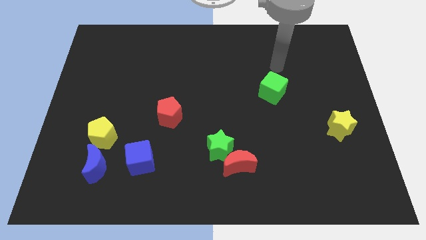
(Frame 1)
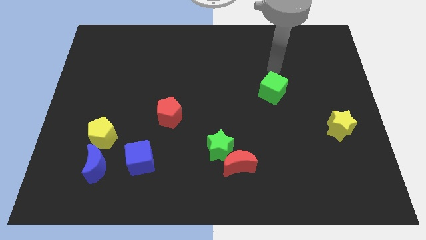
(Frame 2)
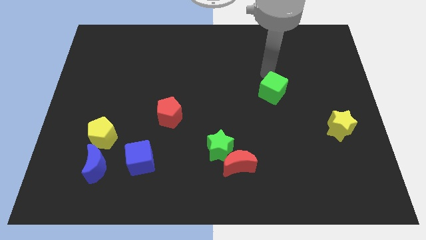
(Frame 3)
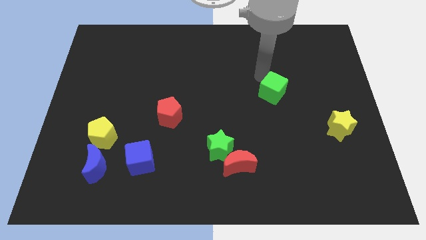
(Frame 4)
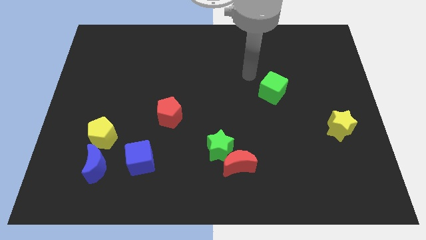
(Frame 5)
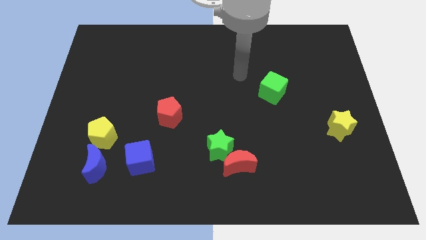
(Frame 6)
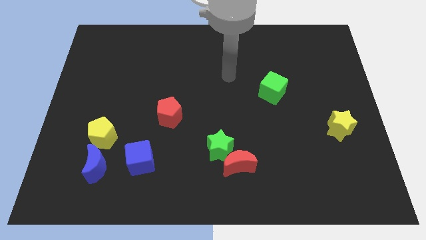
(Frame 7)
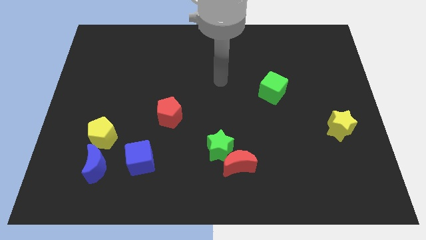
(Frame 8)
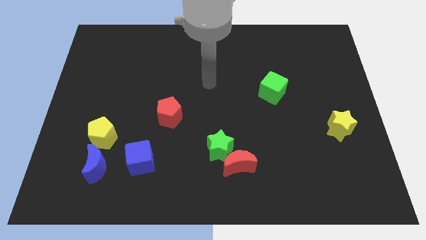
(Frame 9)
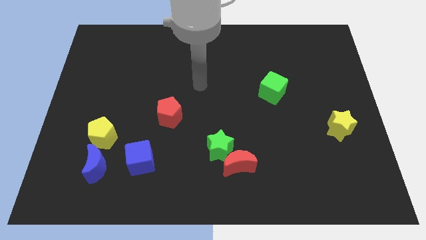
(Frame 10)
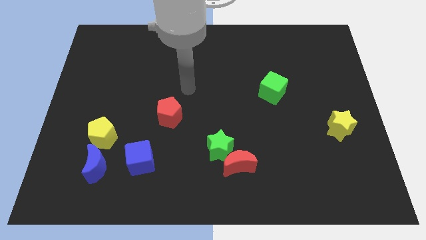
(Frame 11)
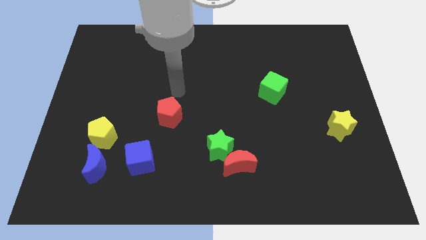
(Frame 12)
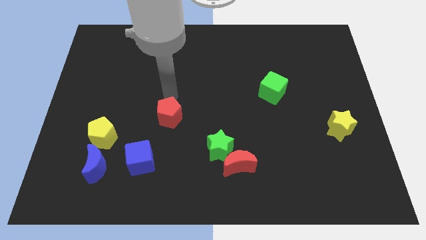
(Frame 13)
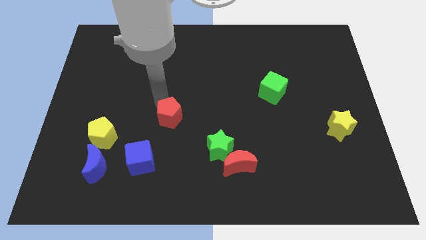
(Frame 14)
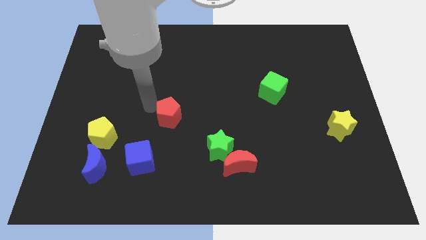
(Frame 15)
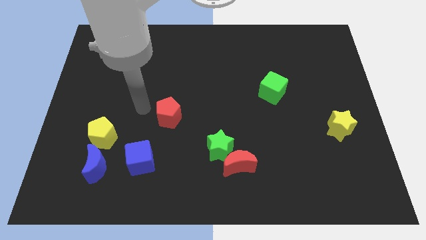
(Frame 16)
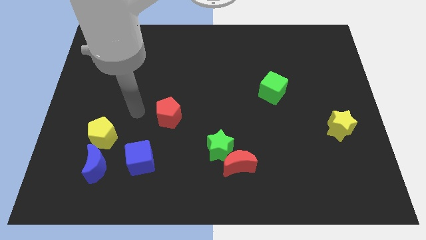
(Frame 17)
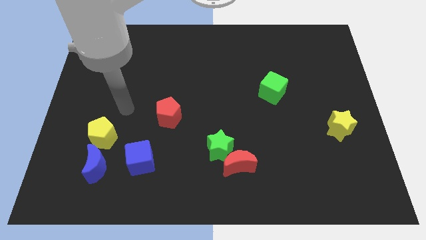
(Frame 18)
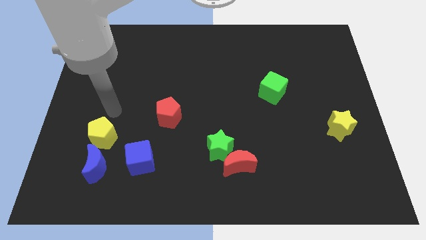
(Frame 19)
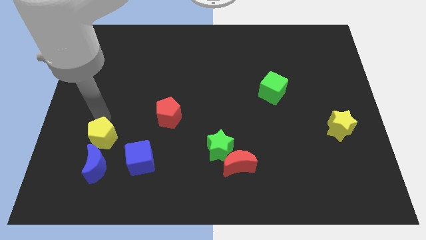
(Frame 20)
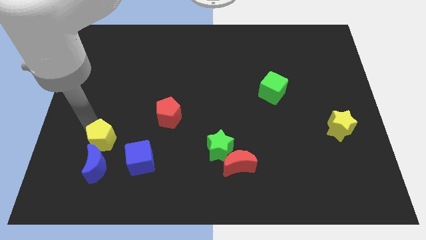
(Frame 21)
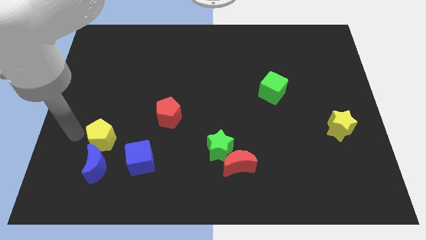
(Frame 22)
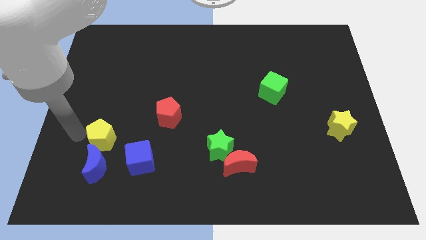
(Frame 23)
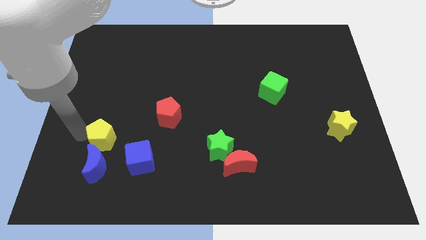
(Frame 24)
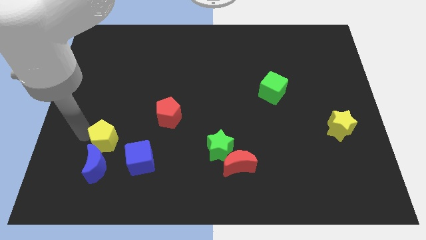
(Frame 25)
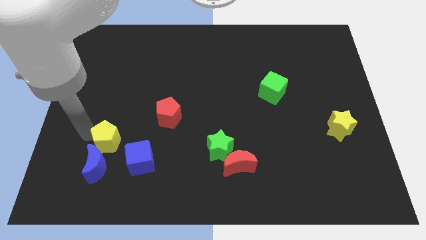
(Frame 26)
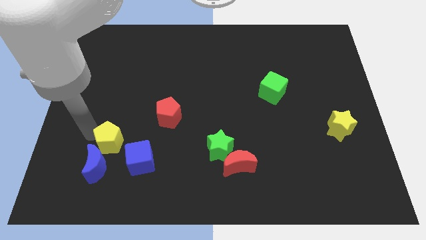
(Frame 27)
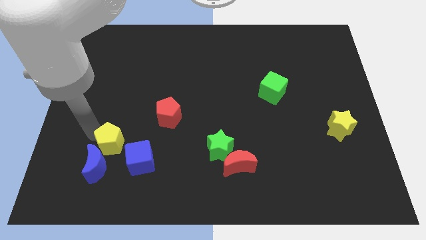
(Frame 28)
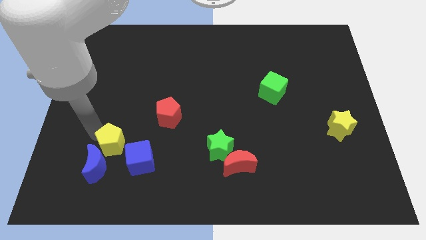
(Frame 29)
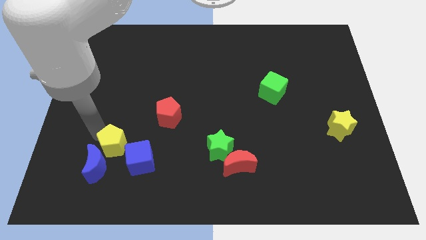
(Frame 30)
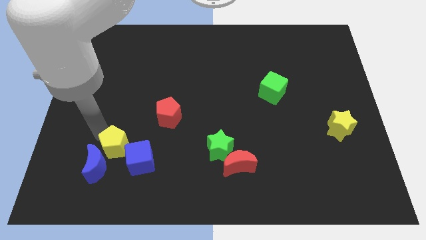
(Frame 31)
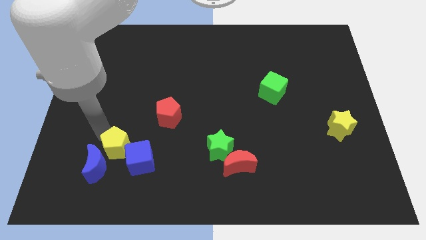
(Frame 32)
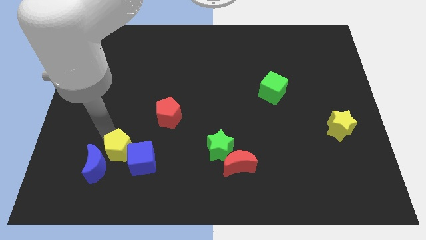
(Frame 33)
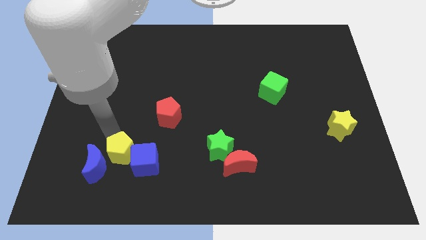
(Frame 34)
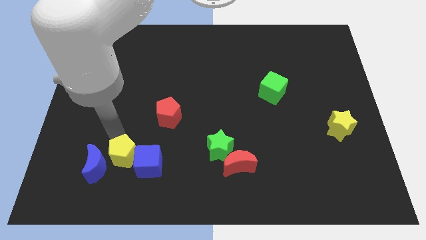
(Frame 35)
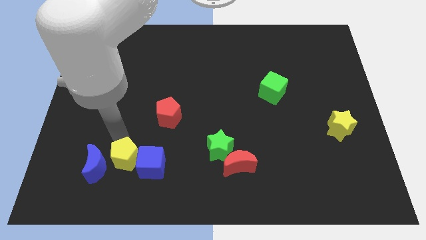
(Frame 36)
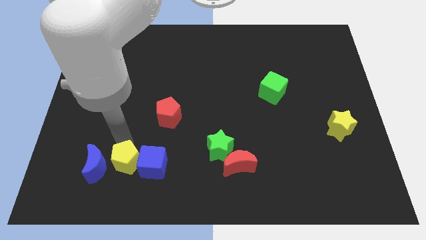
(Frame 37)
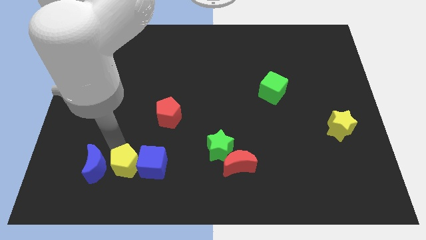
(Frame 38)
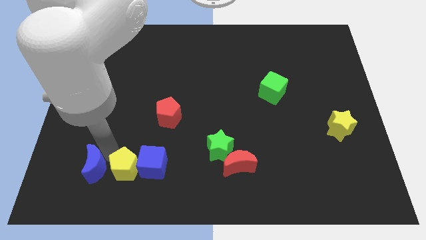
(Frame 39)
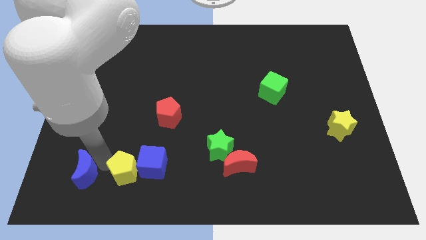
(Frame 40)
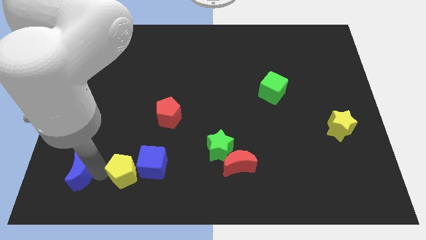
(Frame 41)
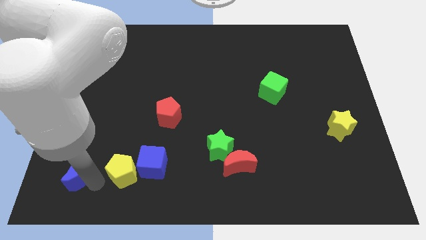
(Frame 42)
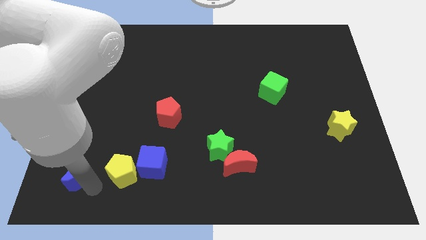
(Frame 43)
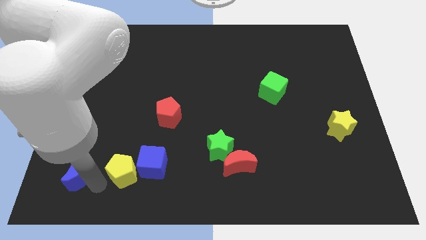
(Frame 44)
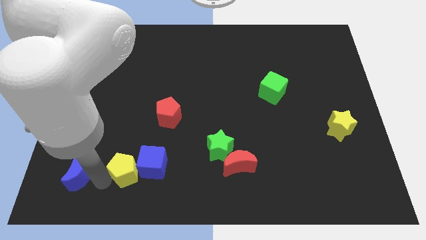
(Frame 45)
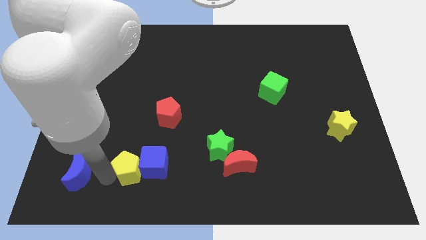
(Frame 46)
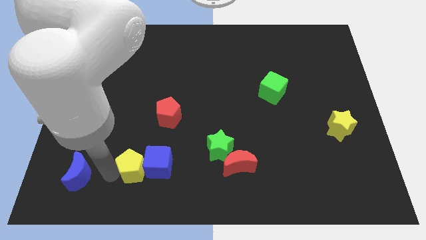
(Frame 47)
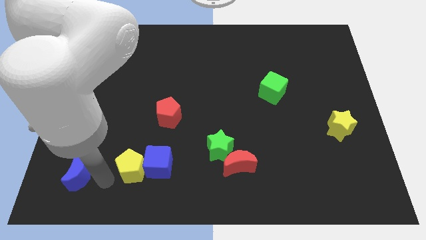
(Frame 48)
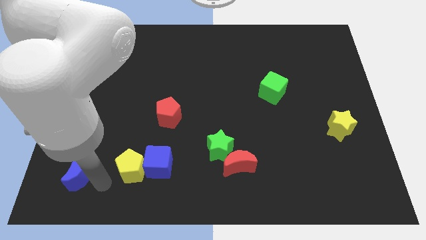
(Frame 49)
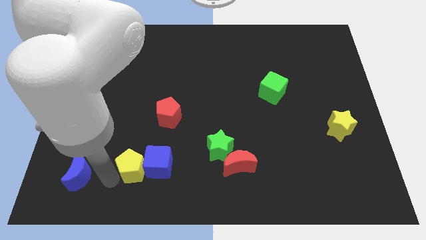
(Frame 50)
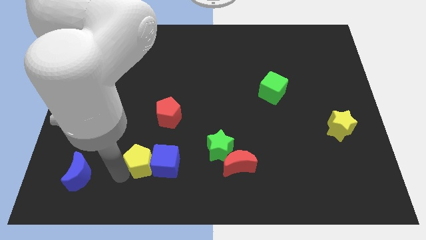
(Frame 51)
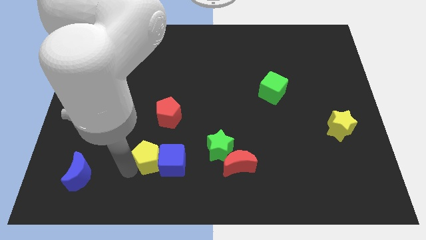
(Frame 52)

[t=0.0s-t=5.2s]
move the yellow pentagon to the left side of the green star
